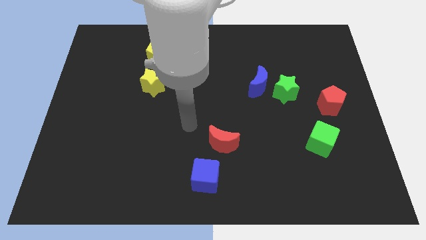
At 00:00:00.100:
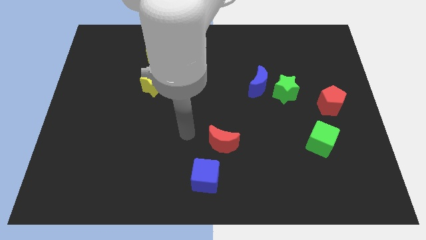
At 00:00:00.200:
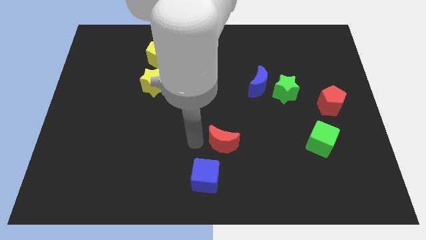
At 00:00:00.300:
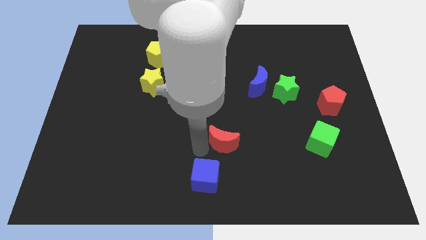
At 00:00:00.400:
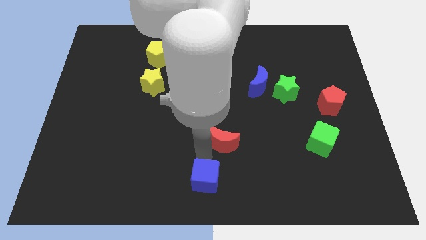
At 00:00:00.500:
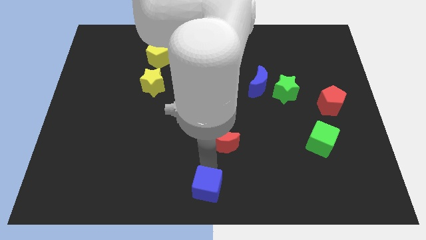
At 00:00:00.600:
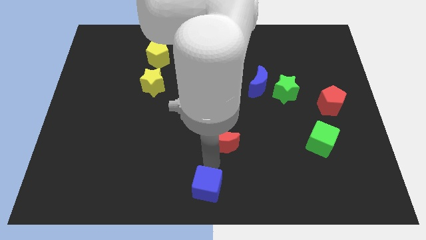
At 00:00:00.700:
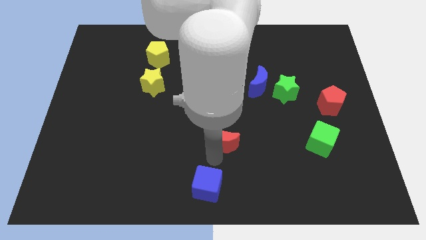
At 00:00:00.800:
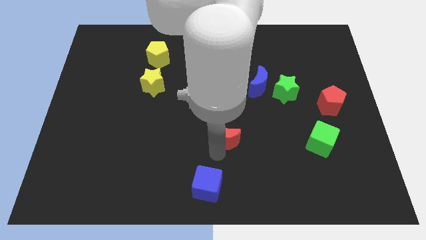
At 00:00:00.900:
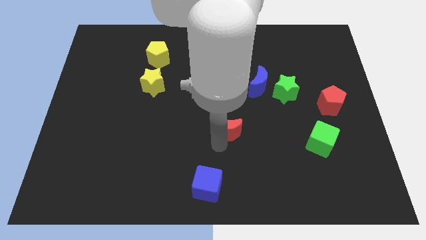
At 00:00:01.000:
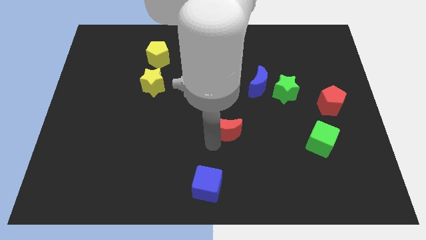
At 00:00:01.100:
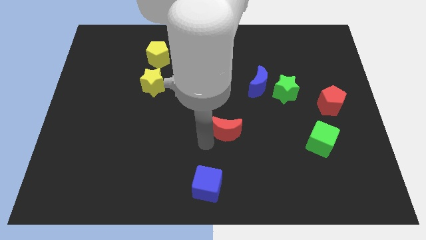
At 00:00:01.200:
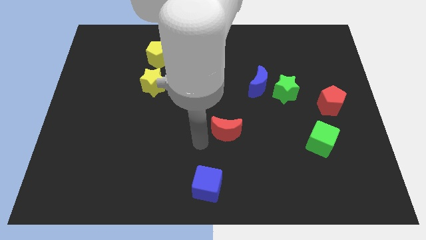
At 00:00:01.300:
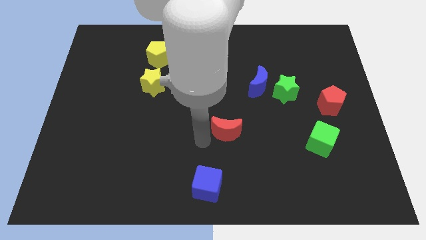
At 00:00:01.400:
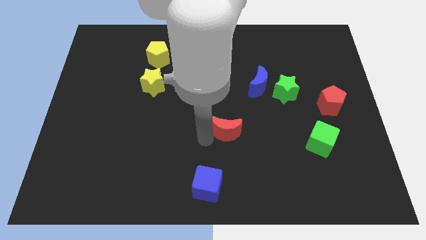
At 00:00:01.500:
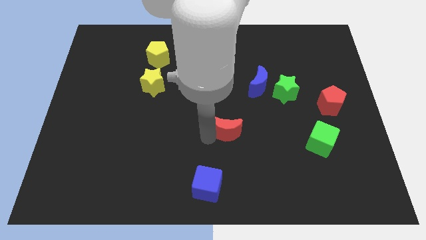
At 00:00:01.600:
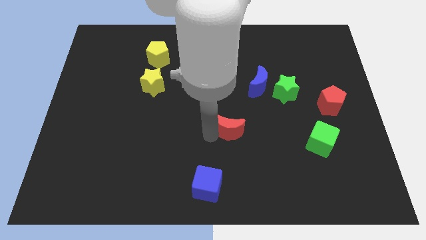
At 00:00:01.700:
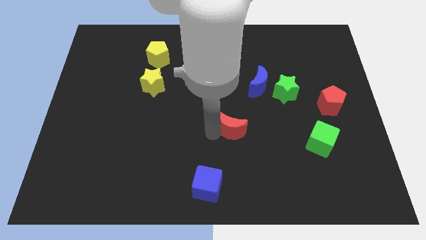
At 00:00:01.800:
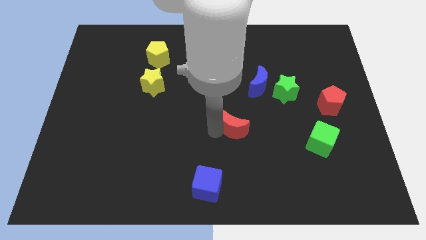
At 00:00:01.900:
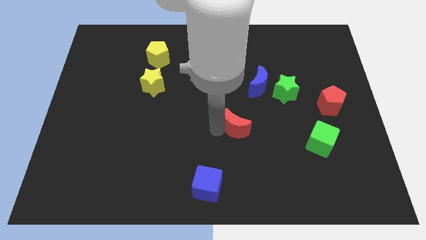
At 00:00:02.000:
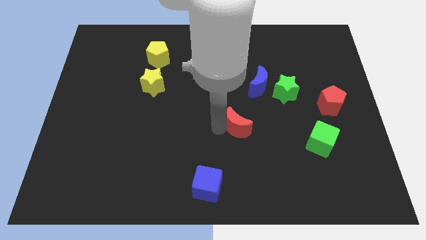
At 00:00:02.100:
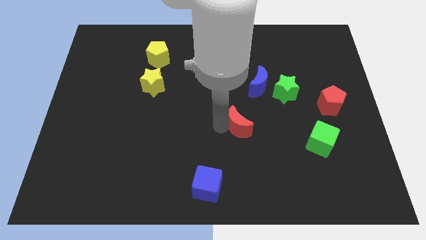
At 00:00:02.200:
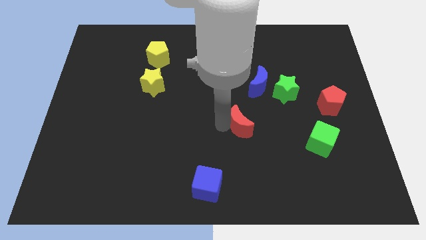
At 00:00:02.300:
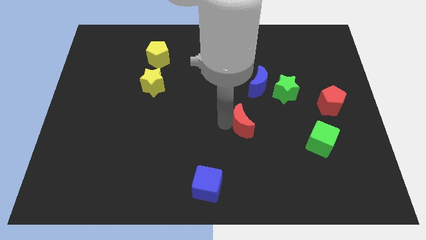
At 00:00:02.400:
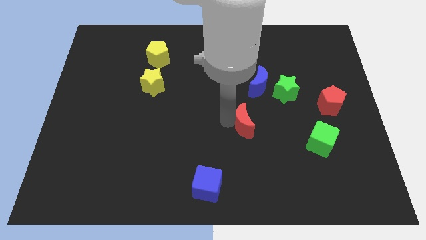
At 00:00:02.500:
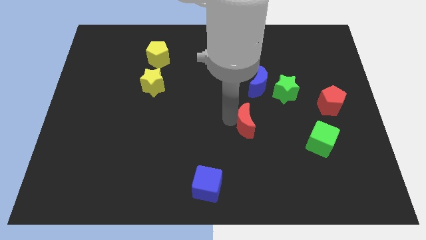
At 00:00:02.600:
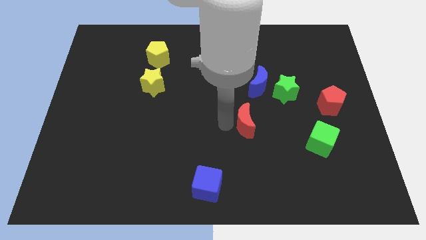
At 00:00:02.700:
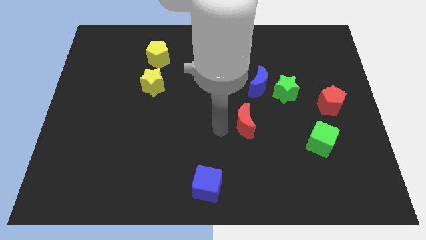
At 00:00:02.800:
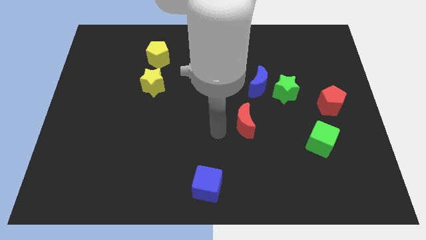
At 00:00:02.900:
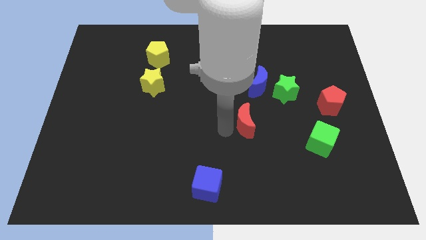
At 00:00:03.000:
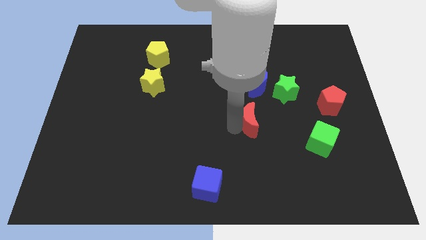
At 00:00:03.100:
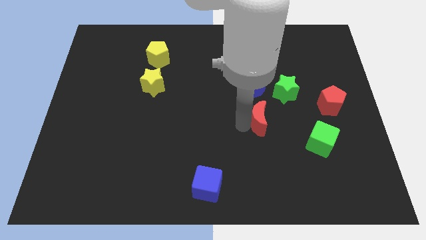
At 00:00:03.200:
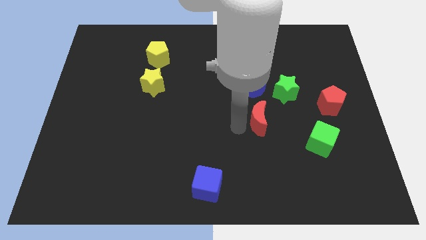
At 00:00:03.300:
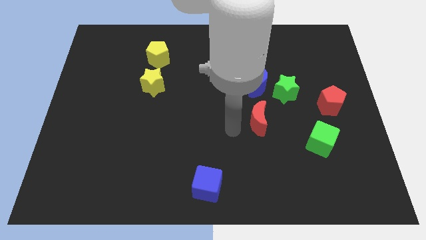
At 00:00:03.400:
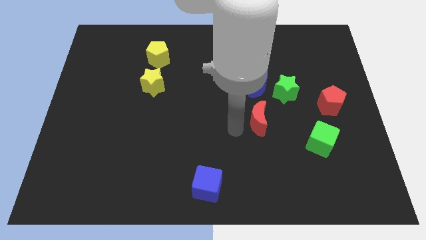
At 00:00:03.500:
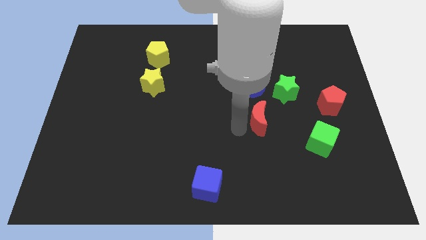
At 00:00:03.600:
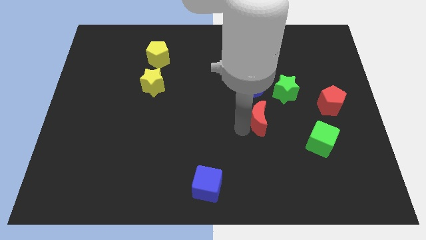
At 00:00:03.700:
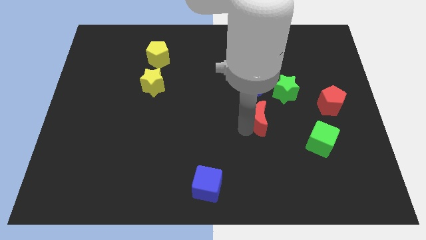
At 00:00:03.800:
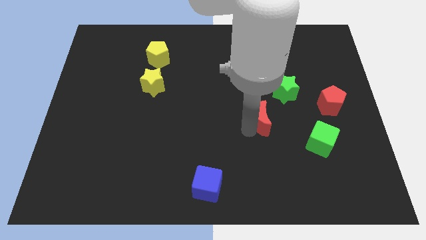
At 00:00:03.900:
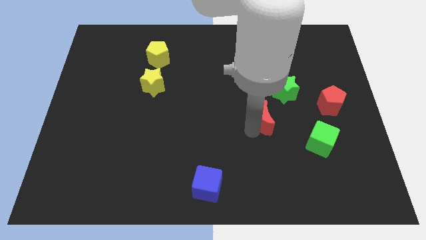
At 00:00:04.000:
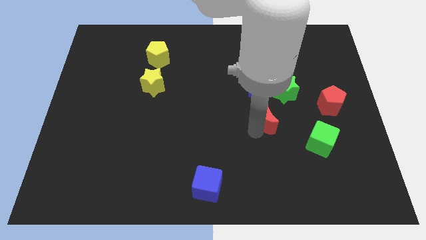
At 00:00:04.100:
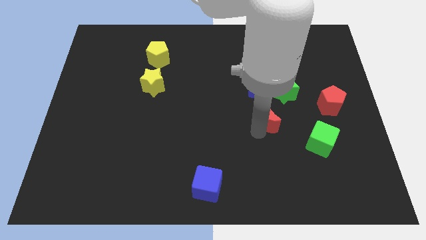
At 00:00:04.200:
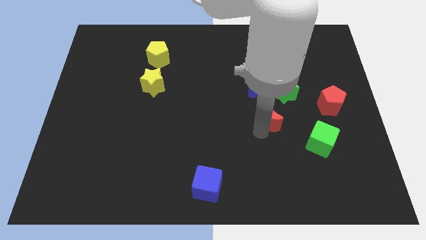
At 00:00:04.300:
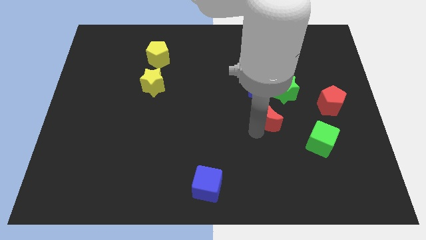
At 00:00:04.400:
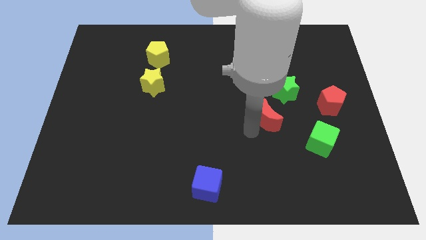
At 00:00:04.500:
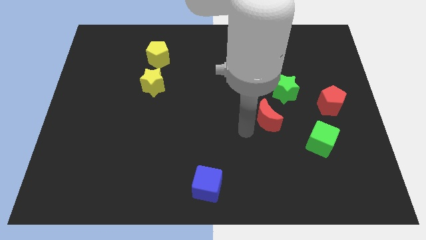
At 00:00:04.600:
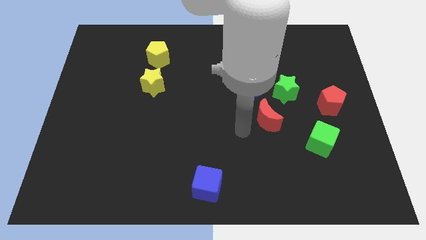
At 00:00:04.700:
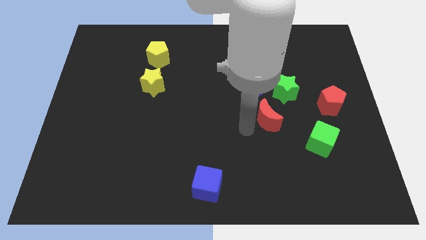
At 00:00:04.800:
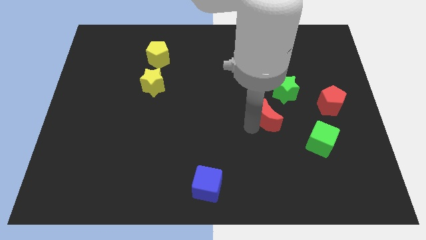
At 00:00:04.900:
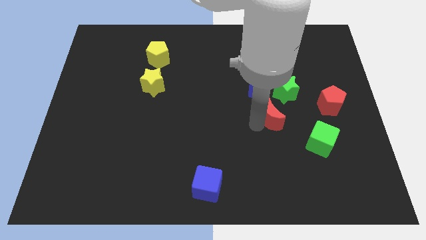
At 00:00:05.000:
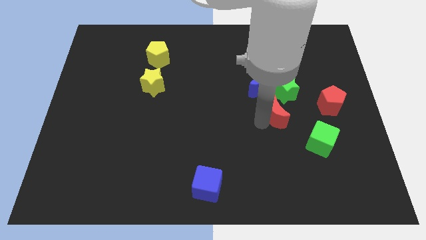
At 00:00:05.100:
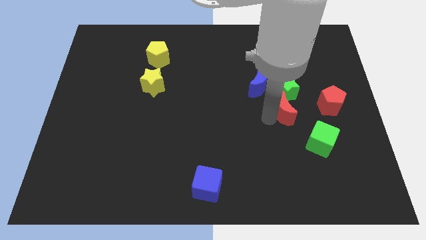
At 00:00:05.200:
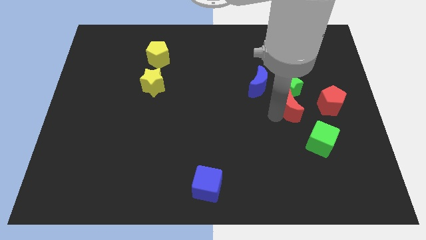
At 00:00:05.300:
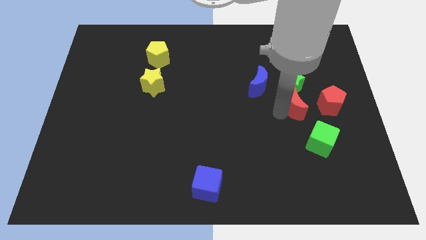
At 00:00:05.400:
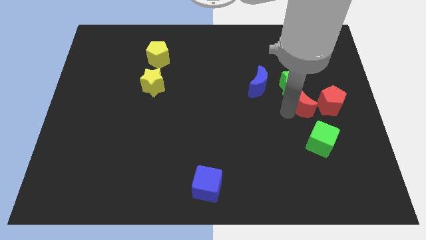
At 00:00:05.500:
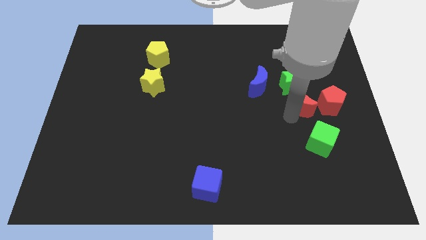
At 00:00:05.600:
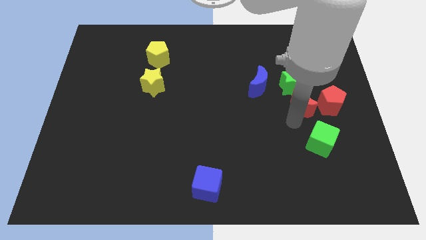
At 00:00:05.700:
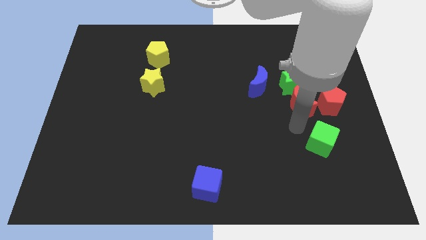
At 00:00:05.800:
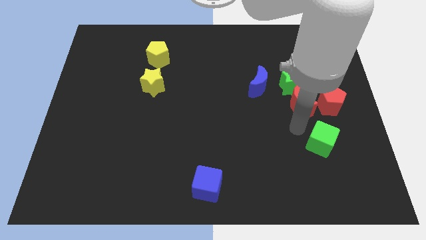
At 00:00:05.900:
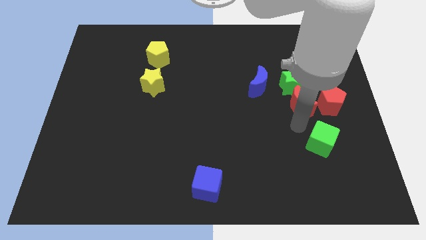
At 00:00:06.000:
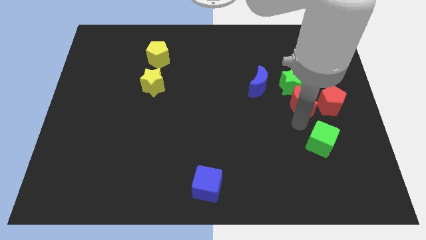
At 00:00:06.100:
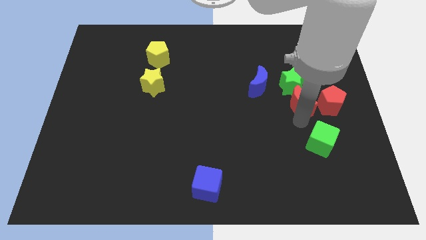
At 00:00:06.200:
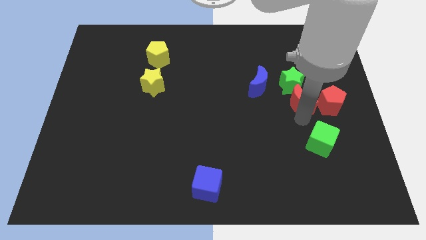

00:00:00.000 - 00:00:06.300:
push the red moon up and then to the right

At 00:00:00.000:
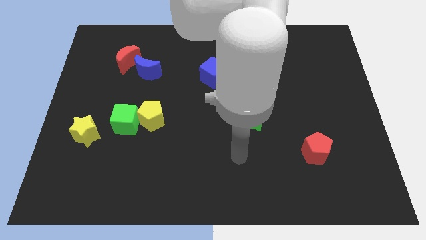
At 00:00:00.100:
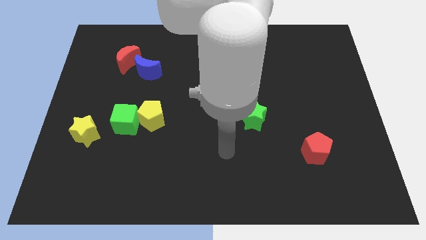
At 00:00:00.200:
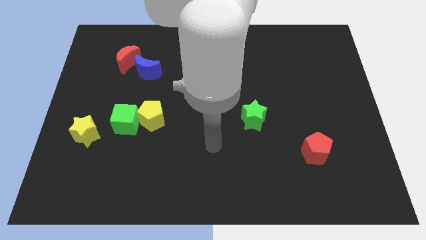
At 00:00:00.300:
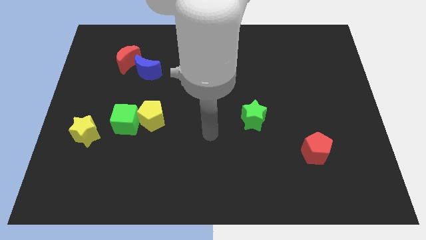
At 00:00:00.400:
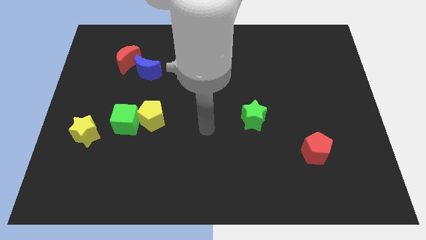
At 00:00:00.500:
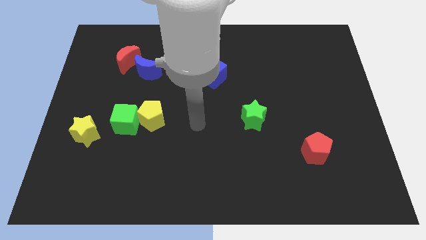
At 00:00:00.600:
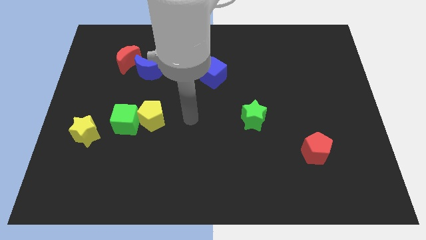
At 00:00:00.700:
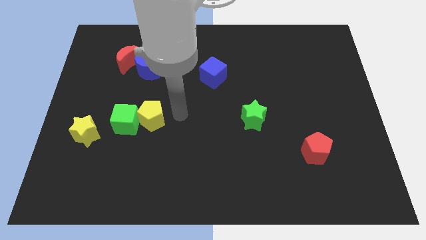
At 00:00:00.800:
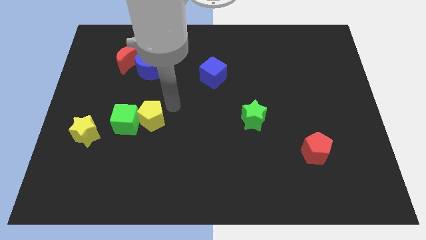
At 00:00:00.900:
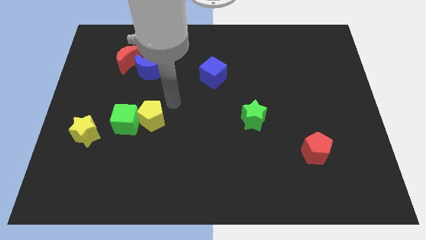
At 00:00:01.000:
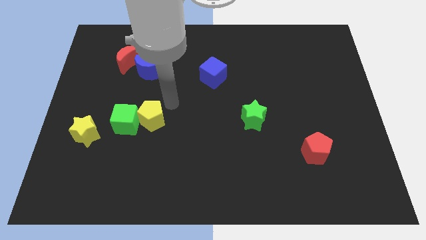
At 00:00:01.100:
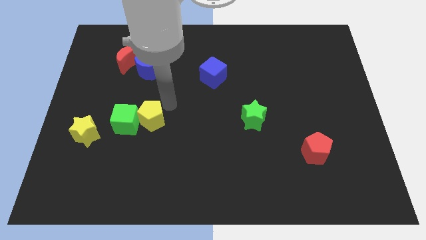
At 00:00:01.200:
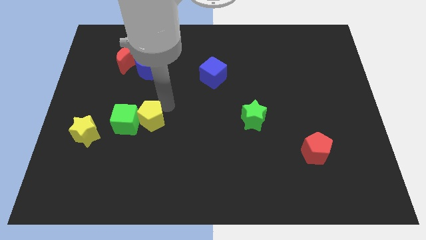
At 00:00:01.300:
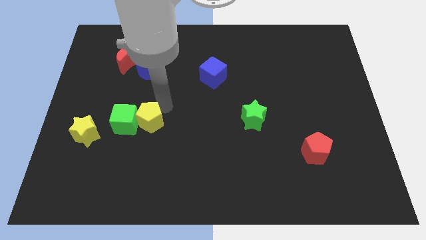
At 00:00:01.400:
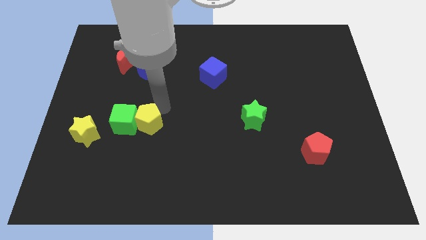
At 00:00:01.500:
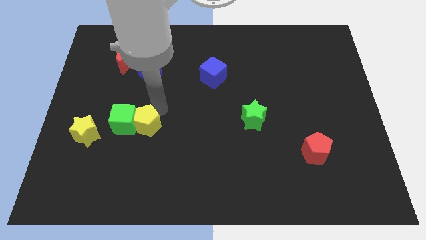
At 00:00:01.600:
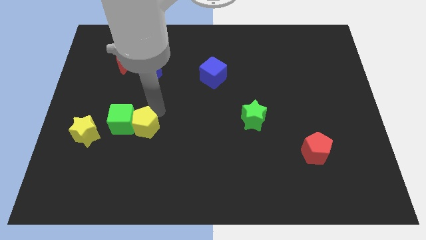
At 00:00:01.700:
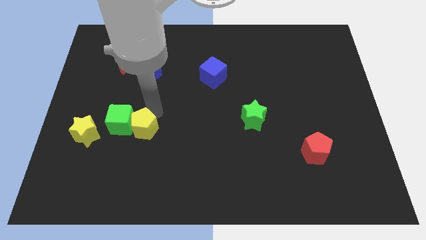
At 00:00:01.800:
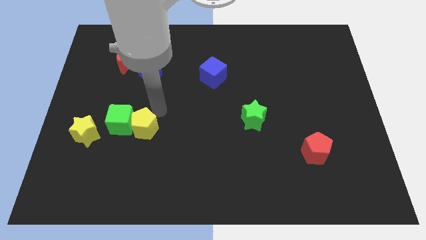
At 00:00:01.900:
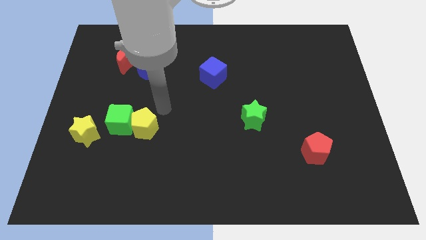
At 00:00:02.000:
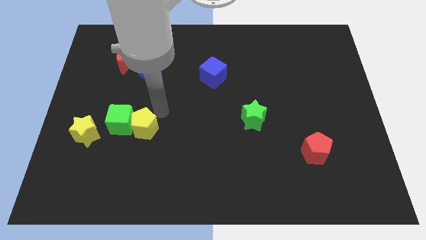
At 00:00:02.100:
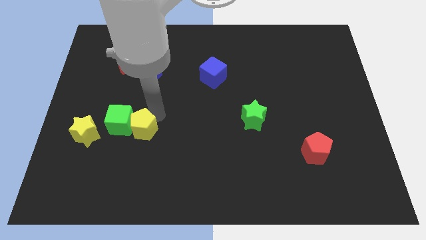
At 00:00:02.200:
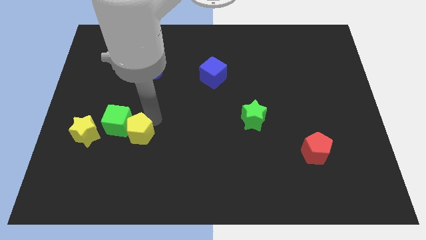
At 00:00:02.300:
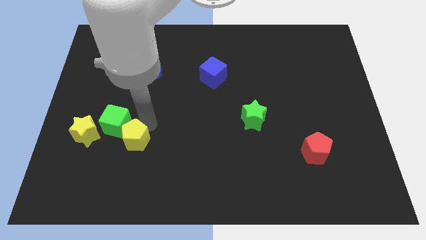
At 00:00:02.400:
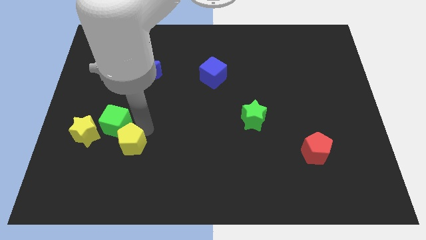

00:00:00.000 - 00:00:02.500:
slightly push the yellow pentagon down and to the left
